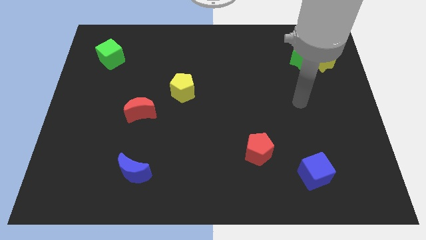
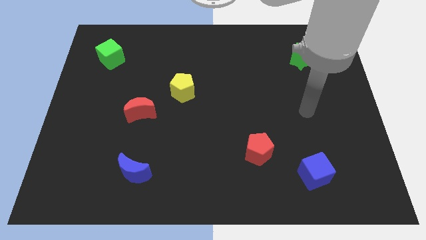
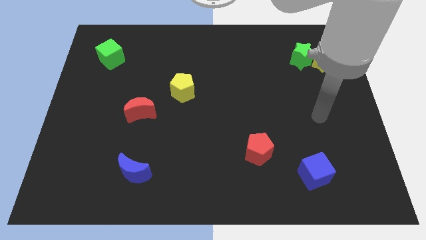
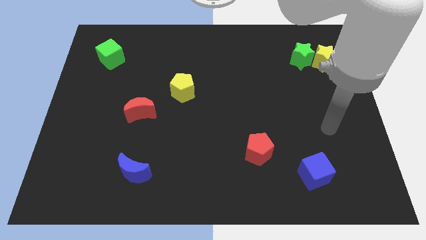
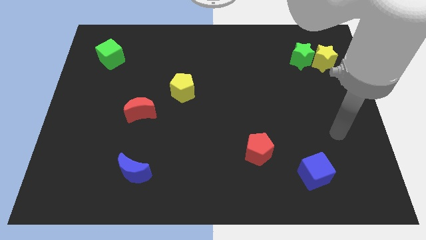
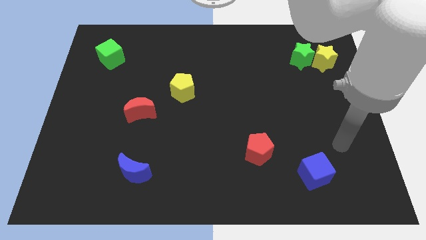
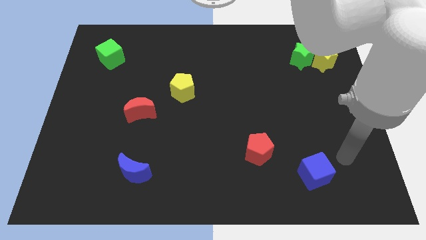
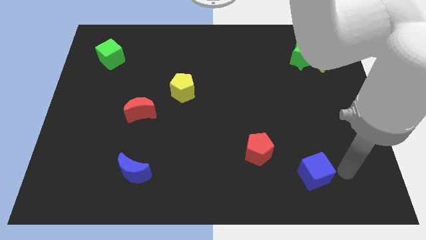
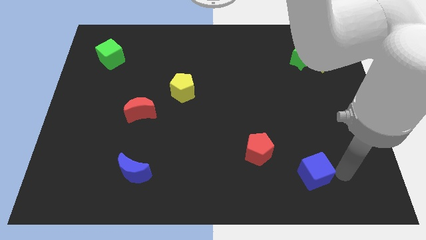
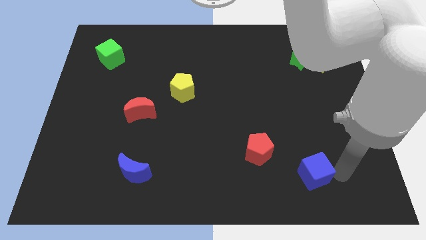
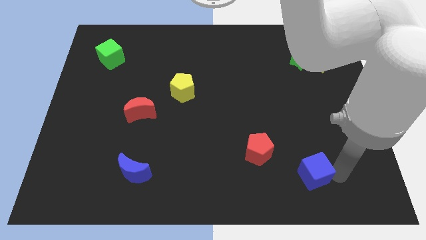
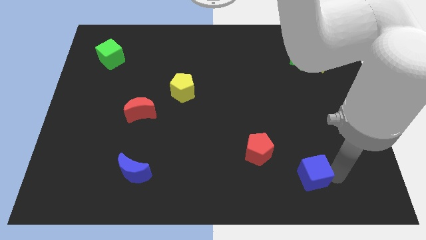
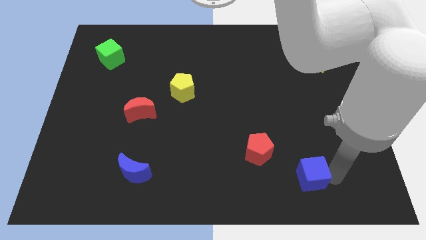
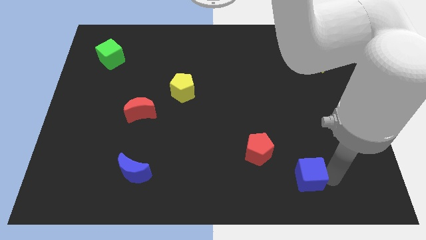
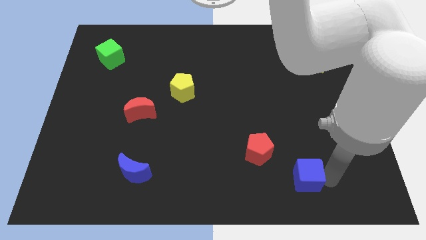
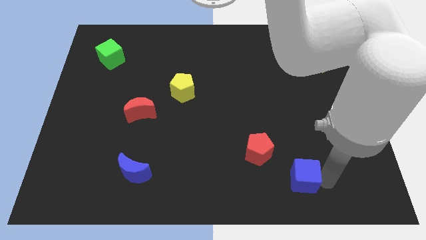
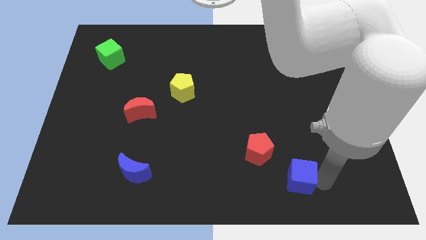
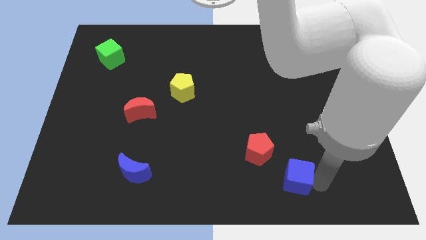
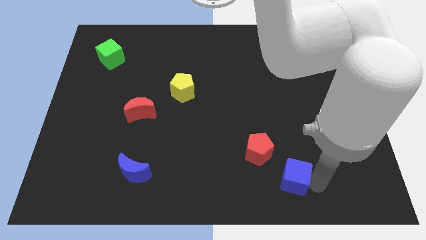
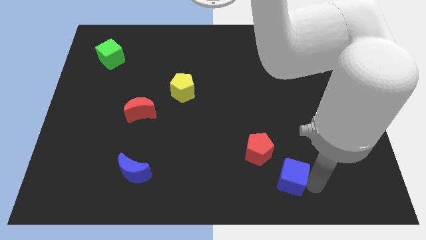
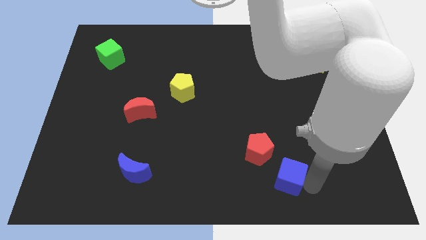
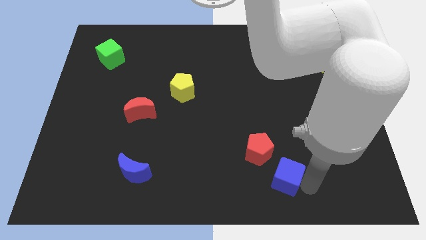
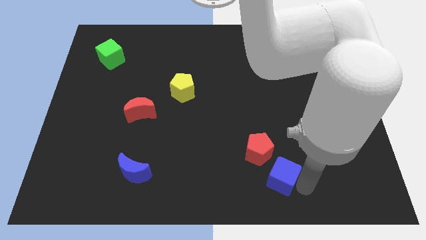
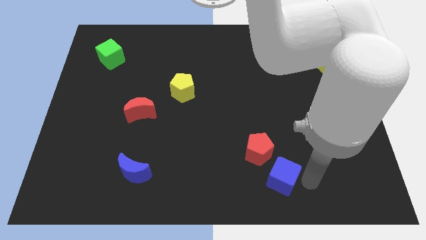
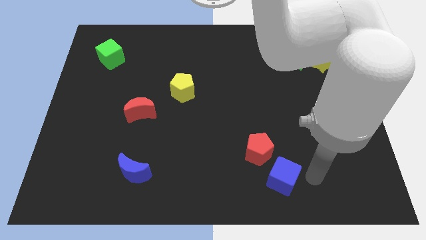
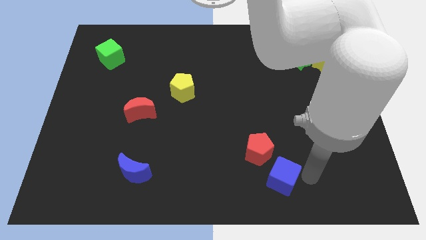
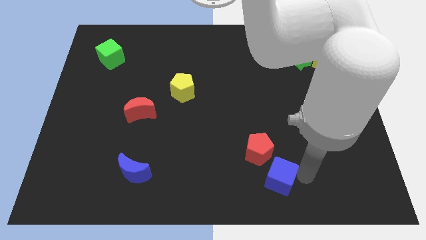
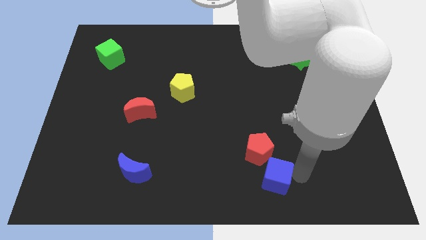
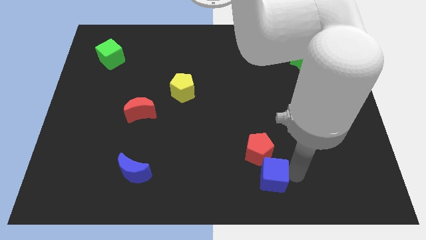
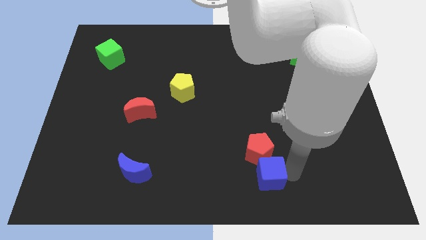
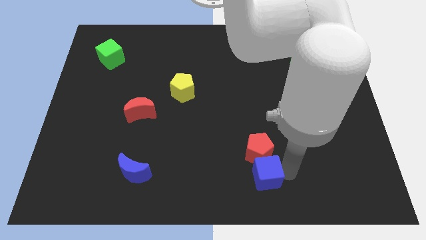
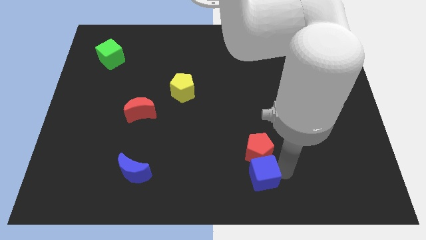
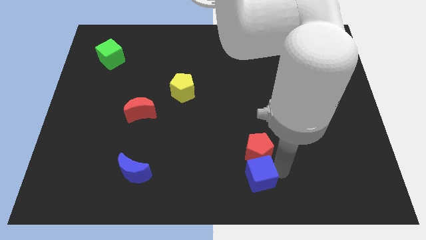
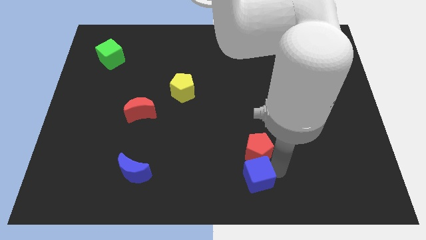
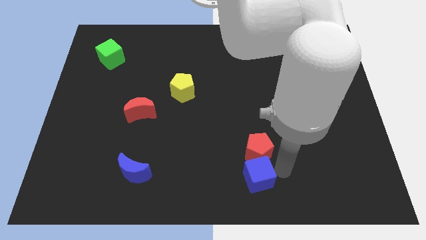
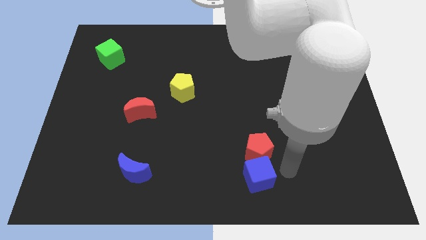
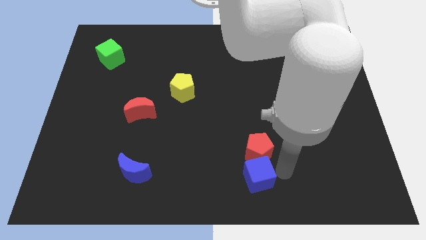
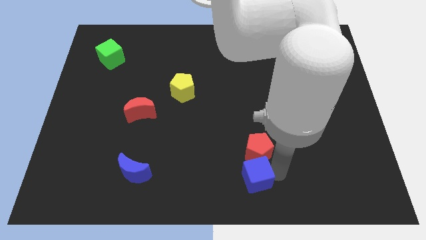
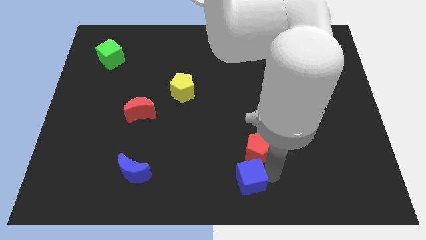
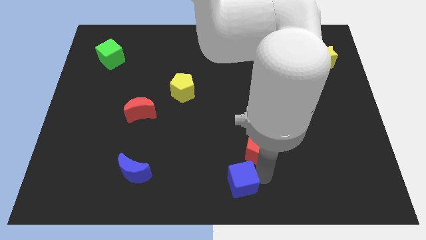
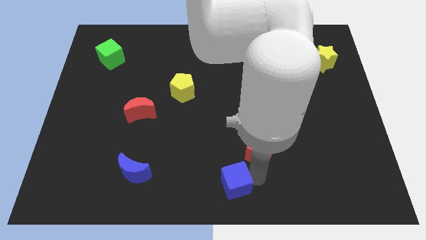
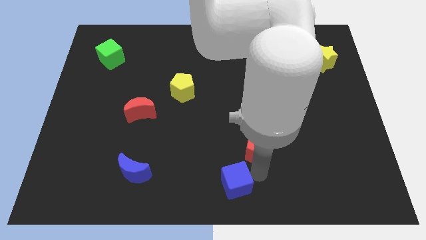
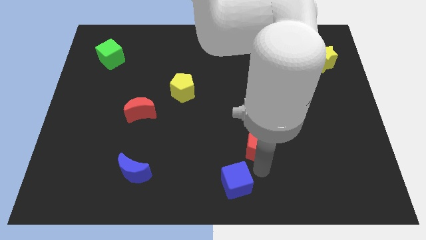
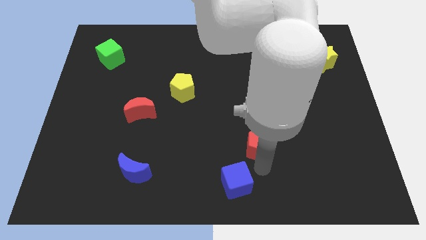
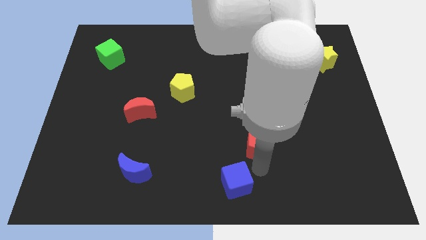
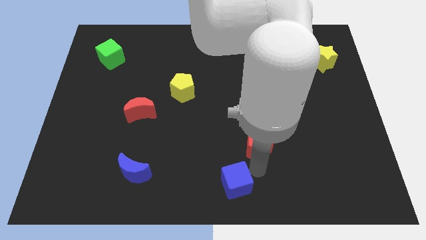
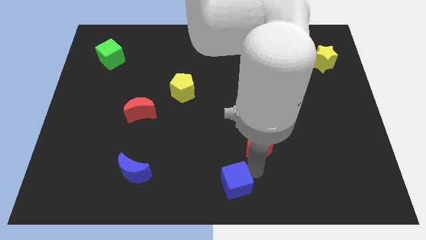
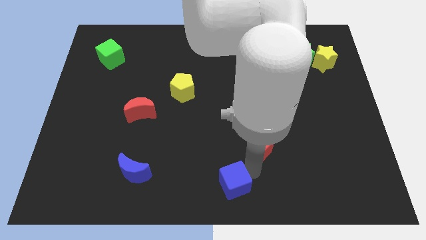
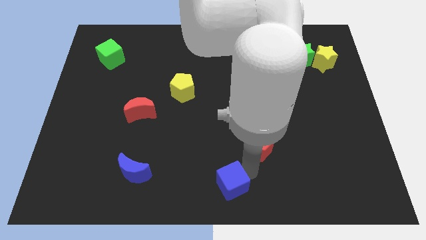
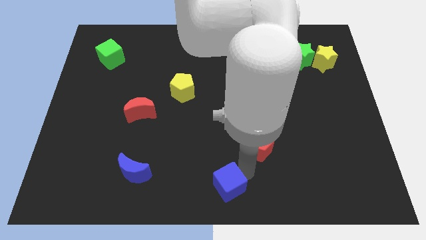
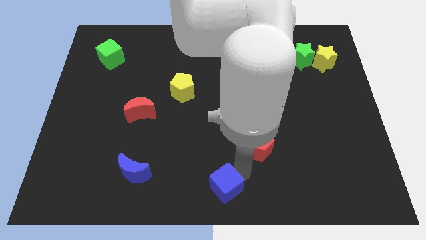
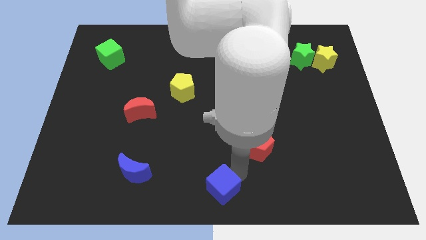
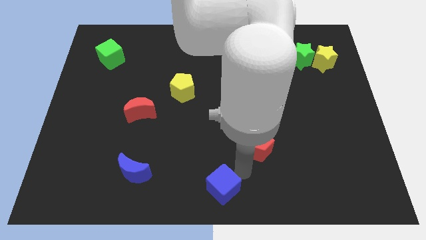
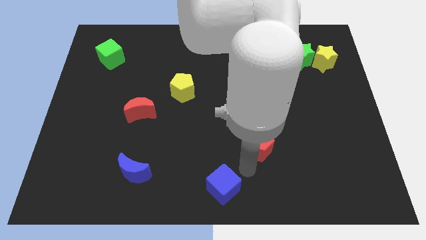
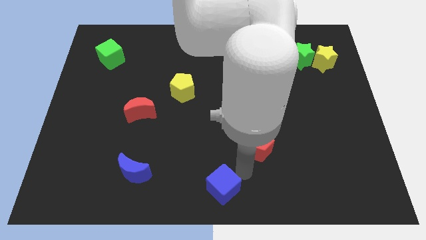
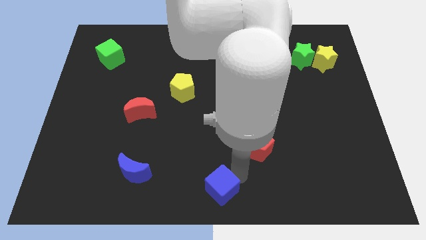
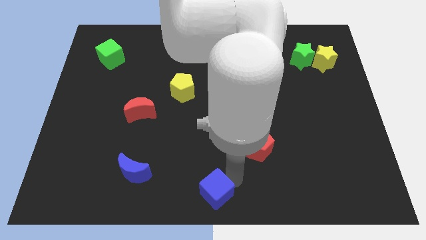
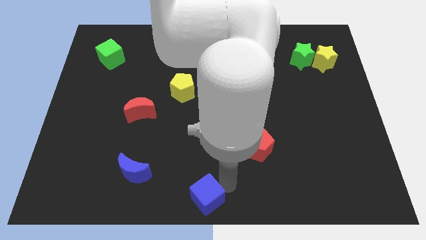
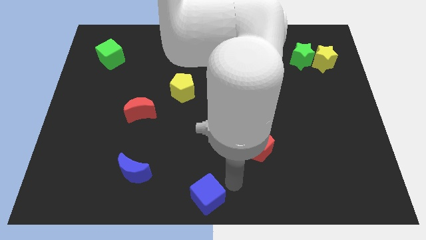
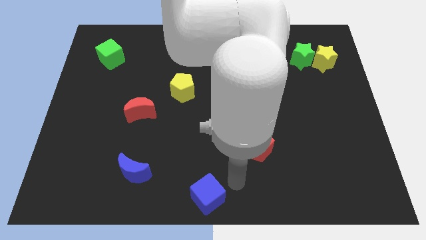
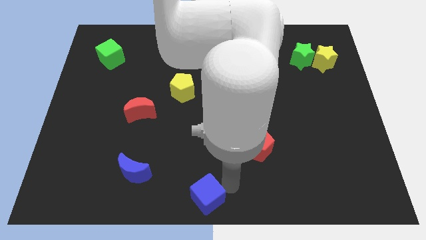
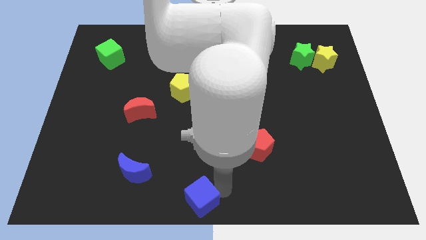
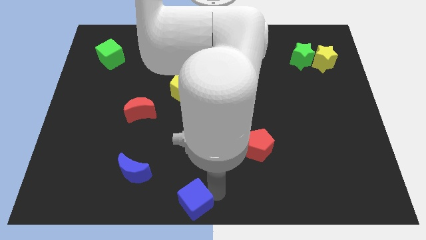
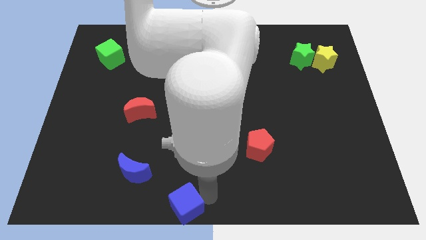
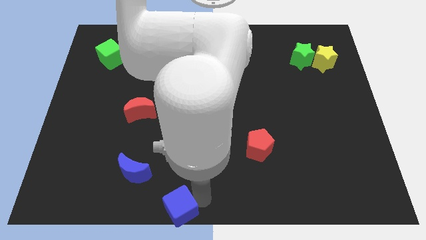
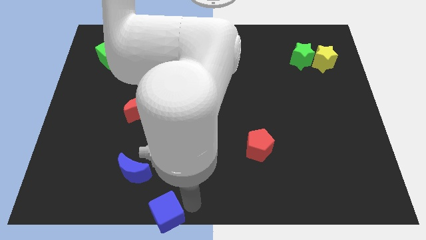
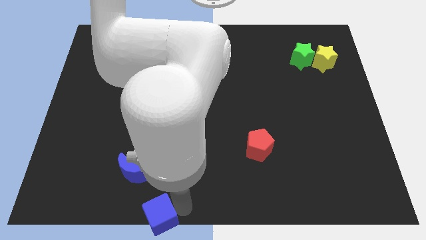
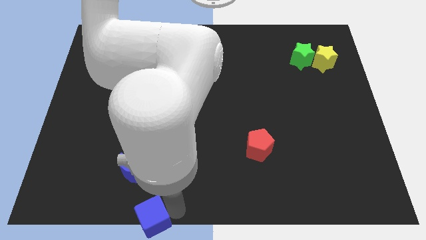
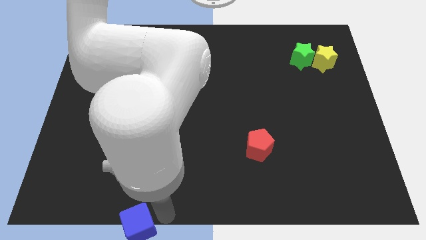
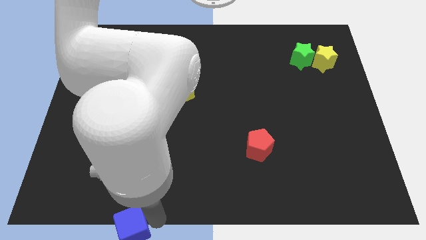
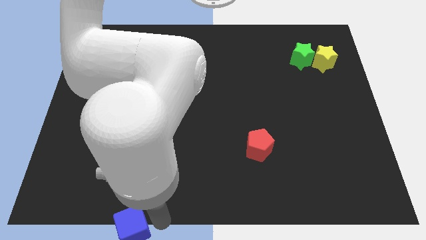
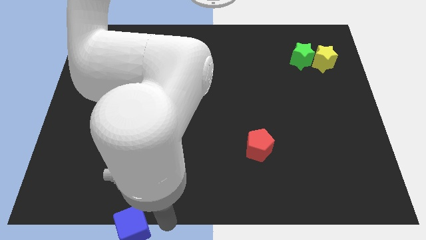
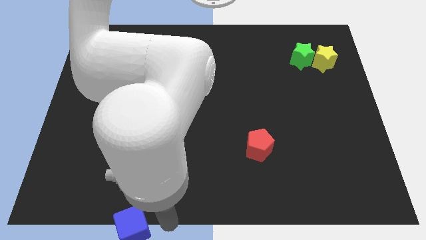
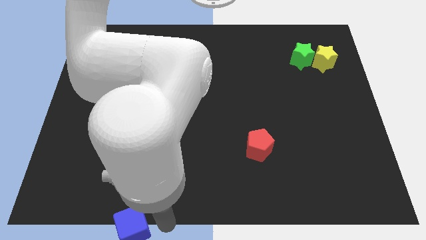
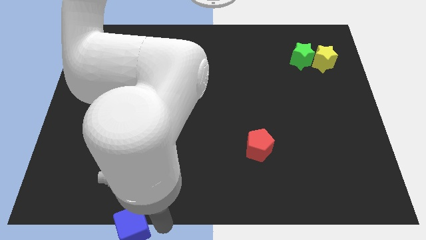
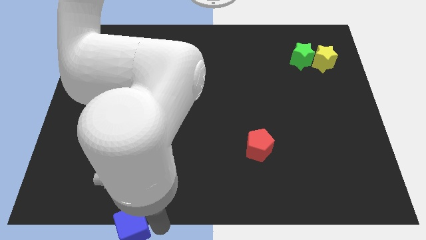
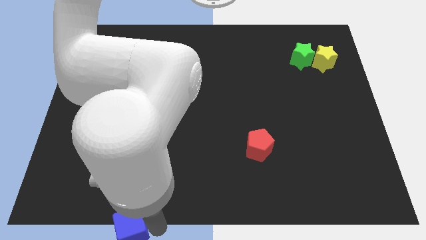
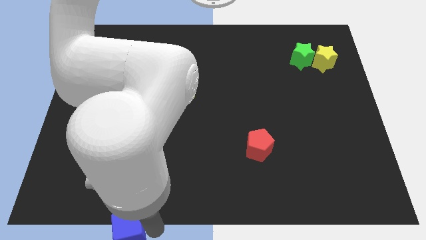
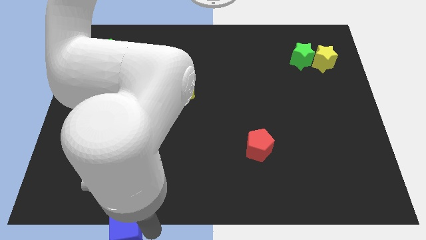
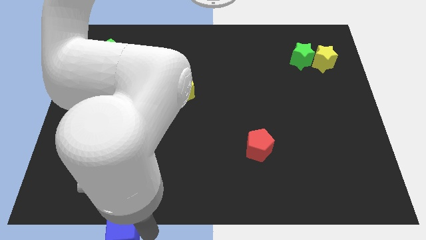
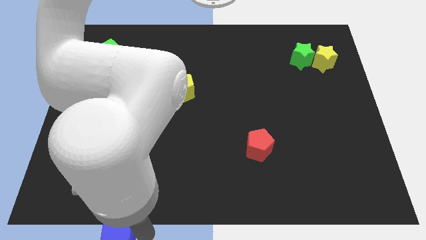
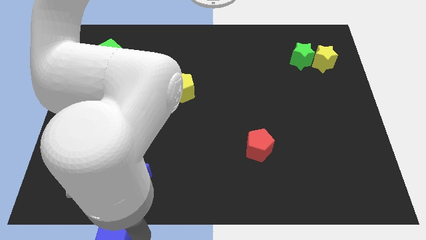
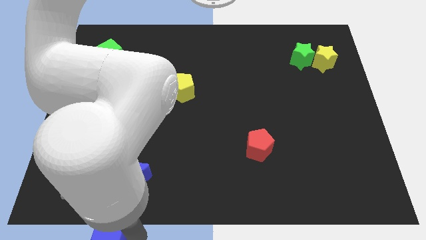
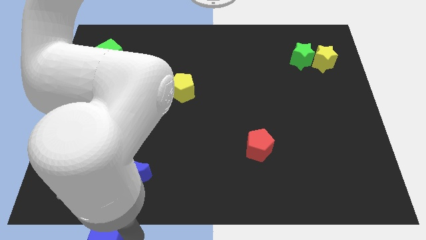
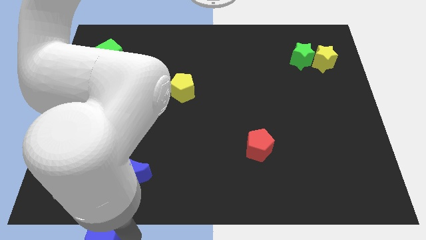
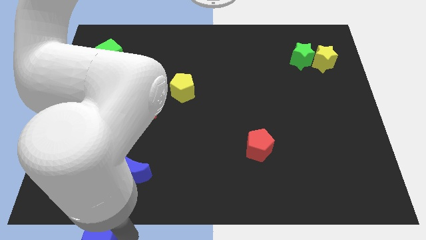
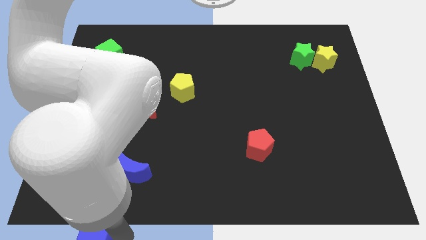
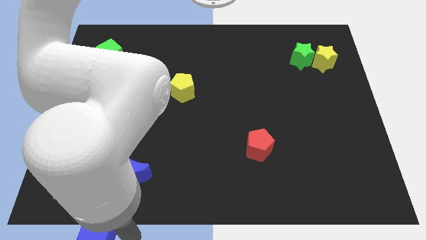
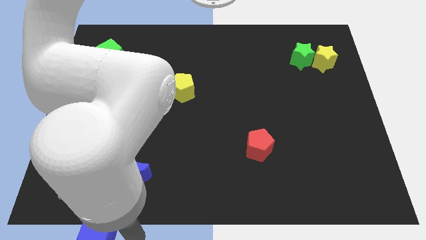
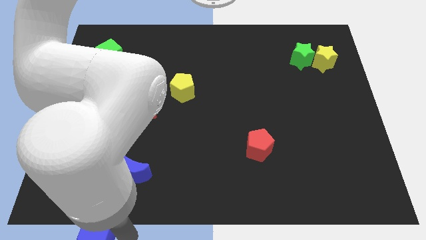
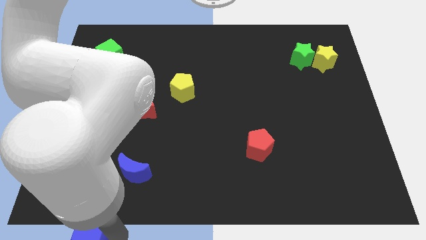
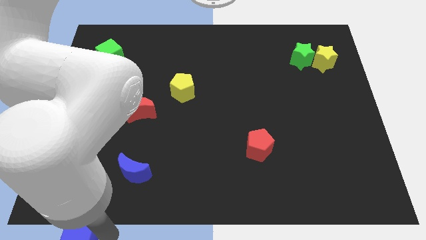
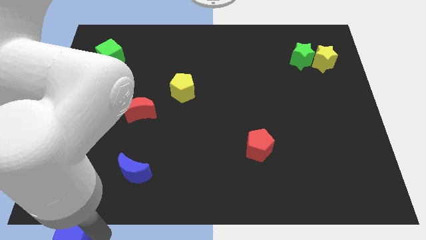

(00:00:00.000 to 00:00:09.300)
slide the blue cube to the bottom left
